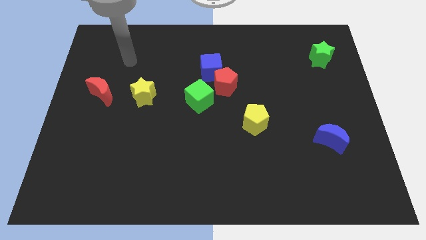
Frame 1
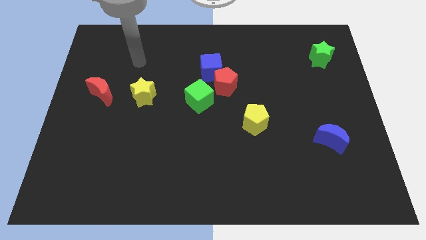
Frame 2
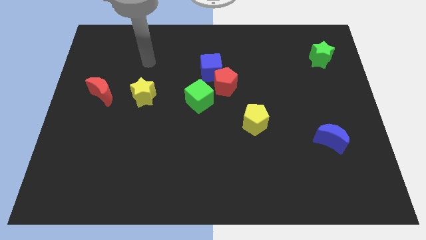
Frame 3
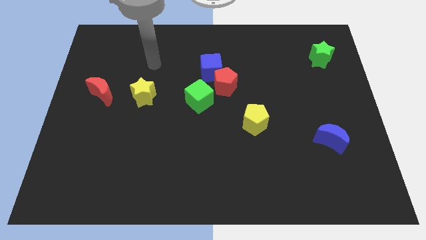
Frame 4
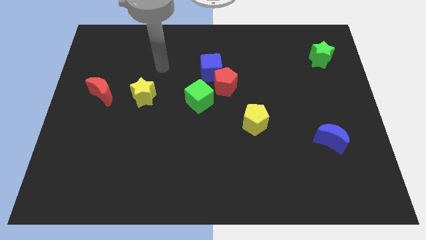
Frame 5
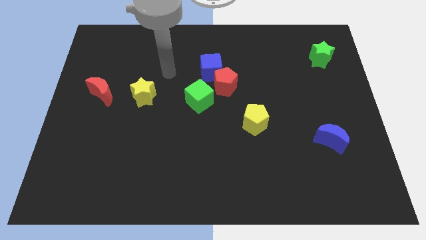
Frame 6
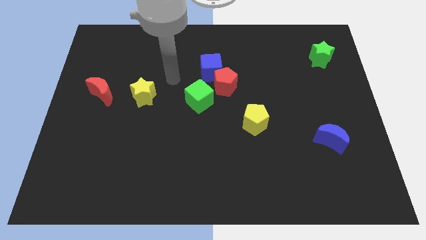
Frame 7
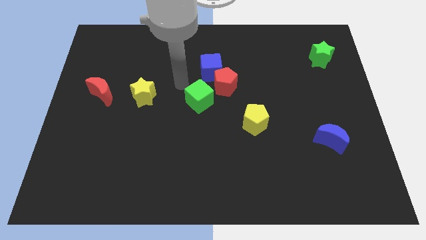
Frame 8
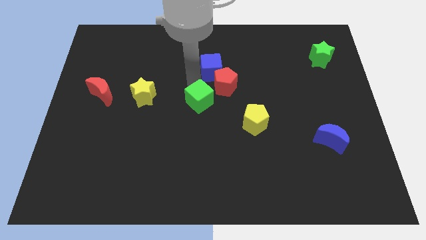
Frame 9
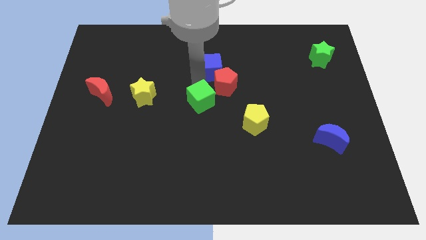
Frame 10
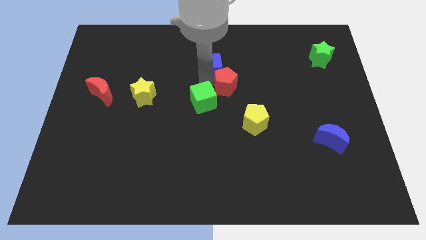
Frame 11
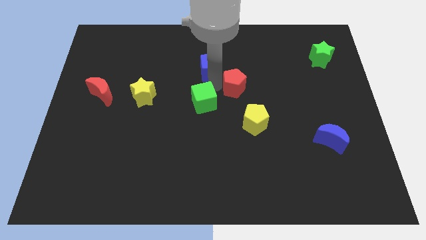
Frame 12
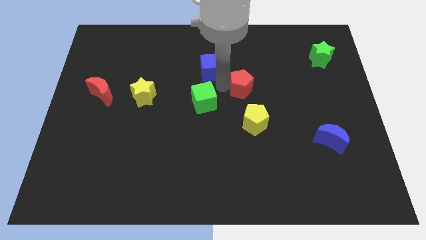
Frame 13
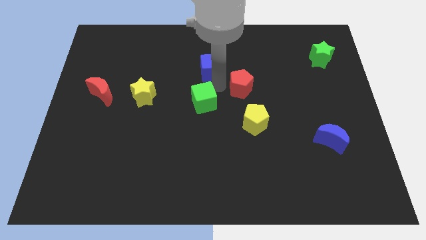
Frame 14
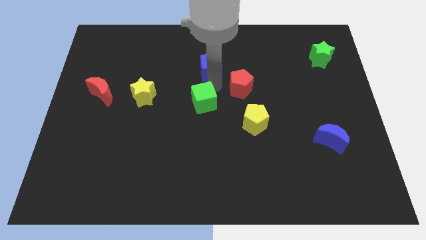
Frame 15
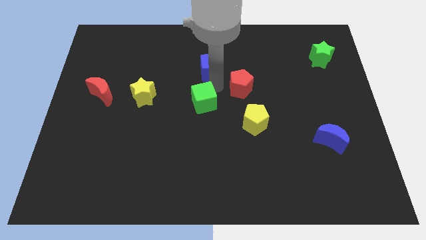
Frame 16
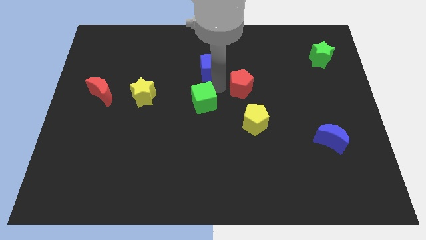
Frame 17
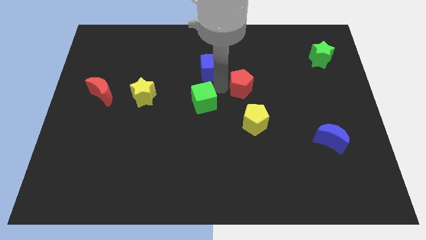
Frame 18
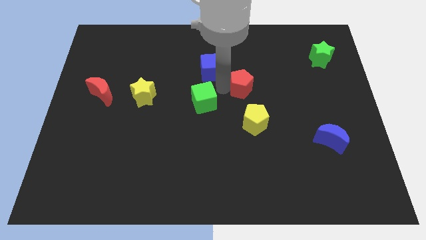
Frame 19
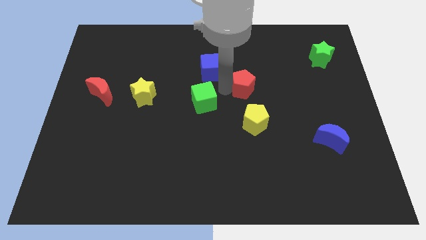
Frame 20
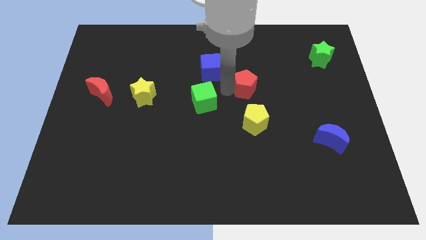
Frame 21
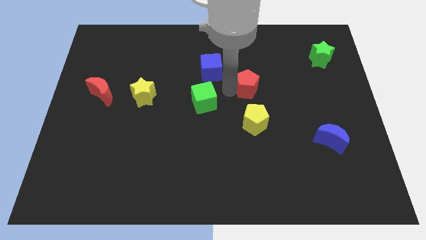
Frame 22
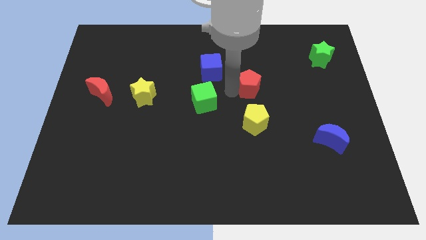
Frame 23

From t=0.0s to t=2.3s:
separate the red pentagon from the blue cube and green cube

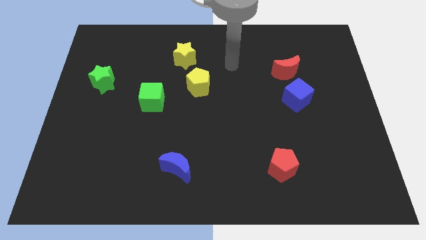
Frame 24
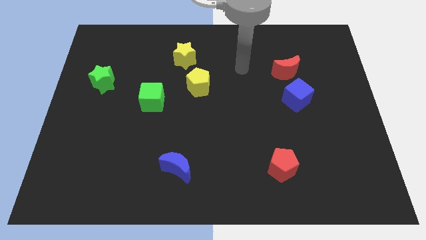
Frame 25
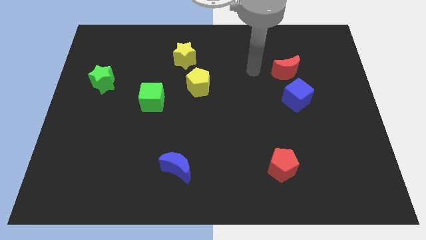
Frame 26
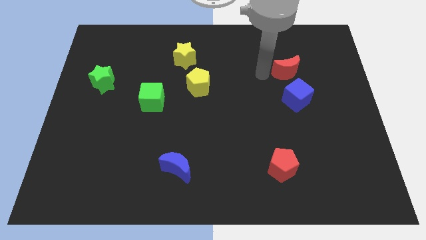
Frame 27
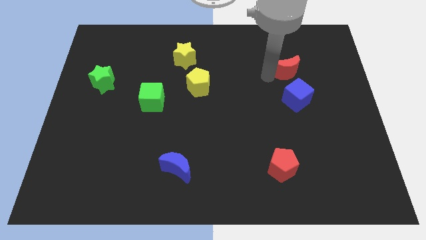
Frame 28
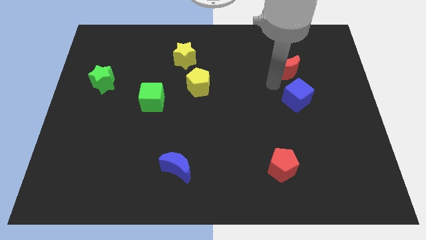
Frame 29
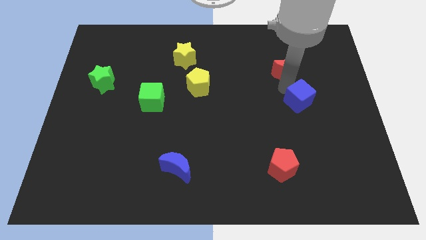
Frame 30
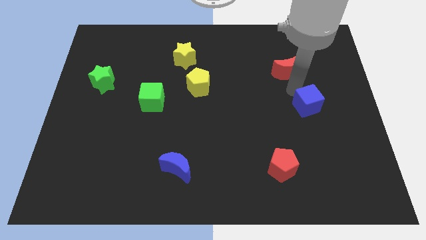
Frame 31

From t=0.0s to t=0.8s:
pull the red moon apart from the blue cube

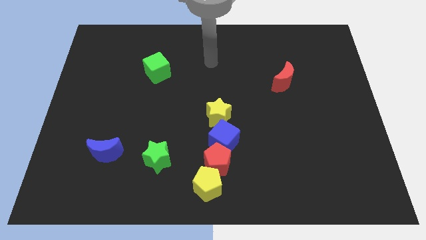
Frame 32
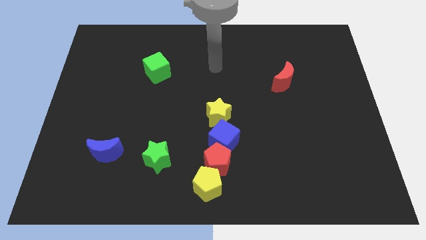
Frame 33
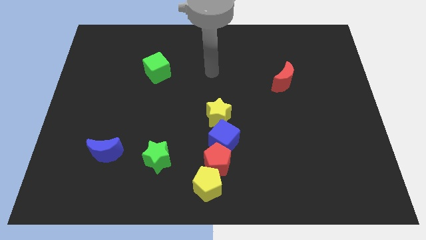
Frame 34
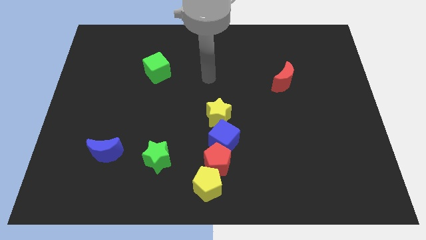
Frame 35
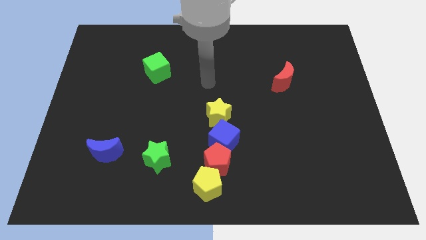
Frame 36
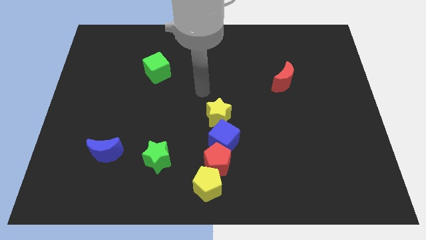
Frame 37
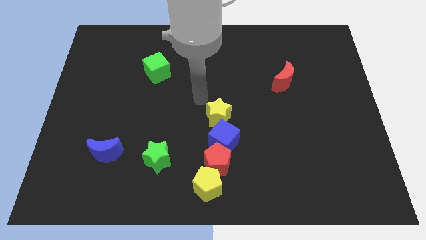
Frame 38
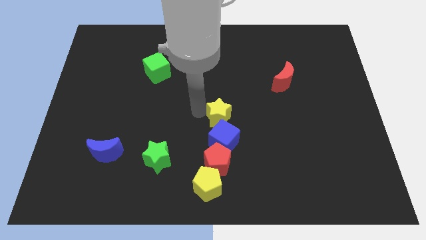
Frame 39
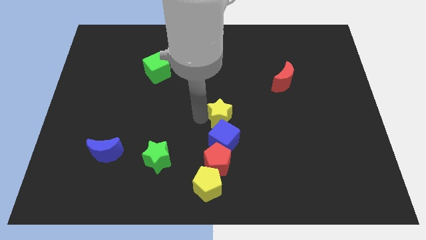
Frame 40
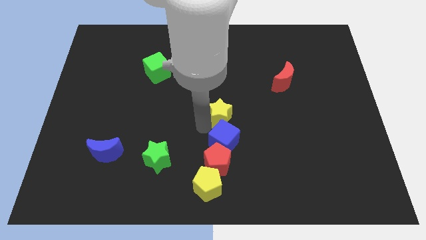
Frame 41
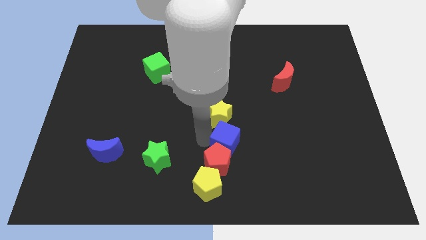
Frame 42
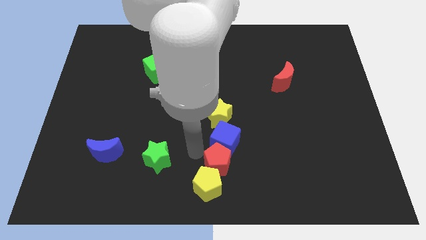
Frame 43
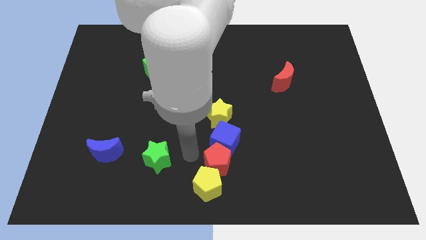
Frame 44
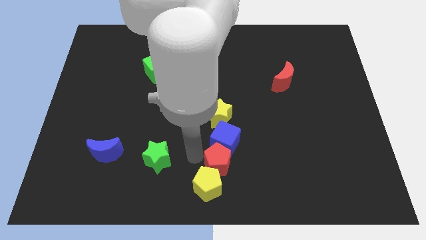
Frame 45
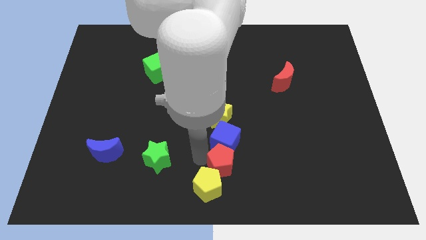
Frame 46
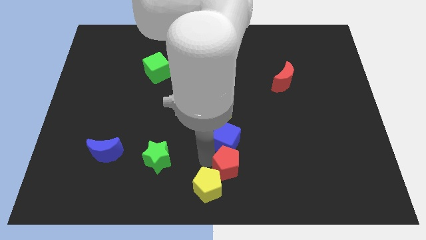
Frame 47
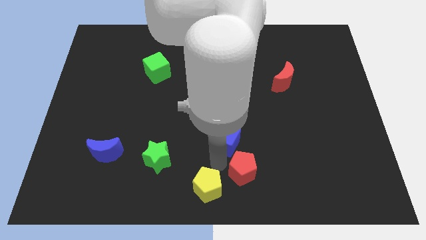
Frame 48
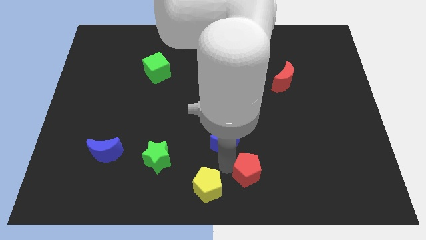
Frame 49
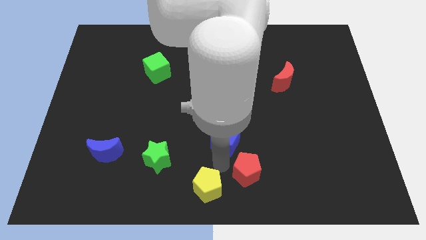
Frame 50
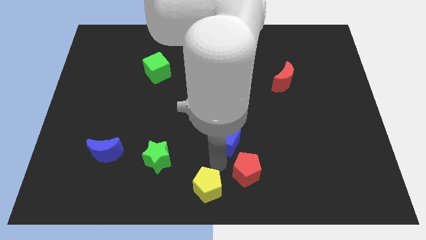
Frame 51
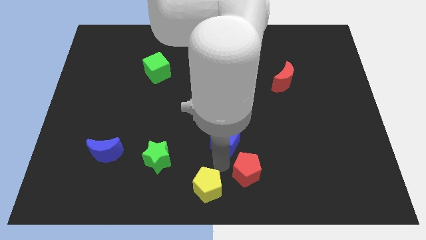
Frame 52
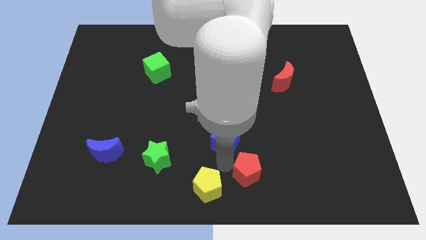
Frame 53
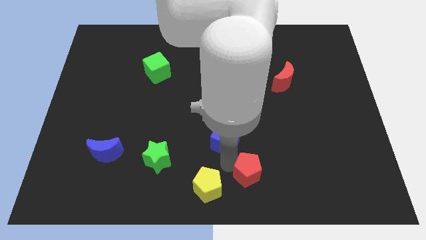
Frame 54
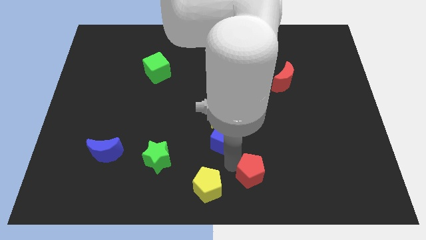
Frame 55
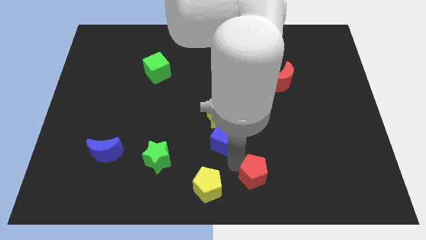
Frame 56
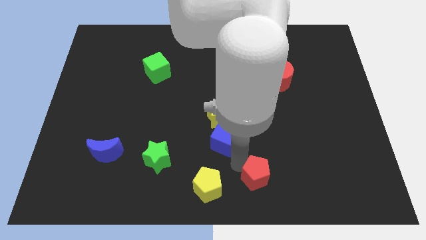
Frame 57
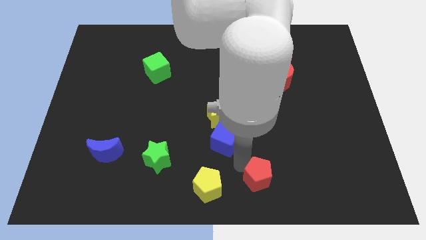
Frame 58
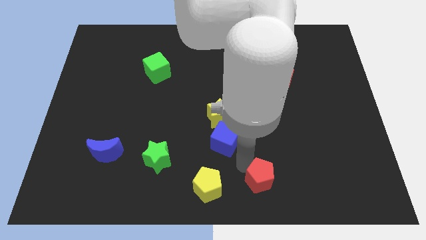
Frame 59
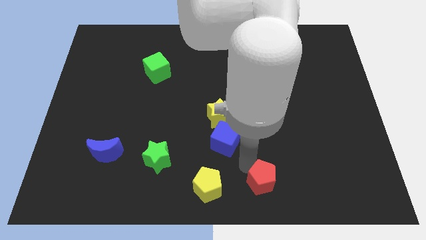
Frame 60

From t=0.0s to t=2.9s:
pull the red pentagon apart from the blue cube and yellow pentagon

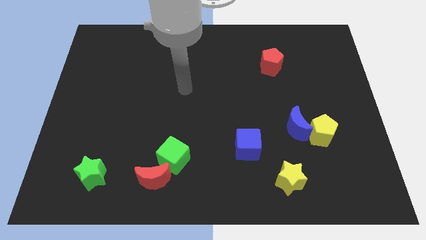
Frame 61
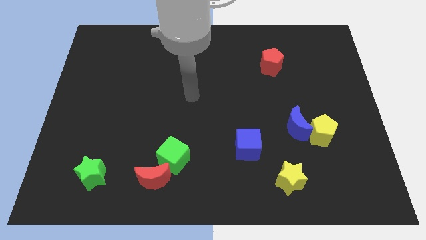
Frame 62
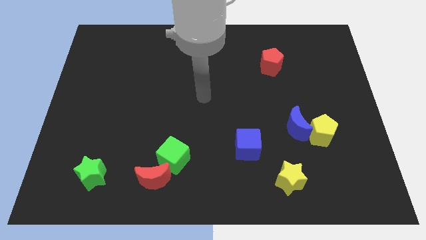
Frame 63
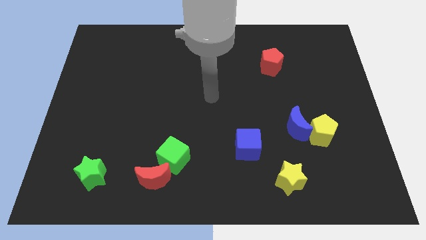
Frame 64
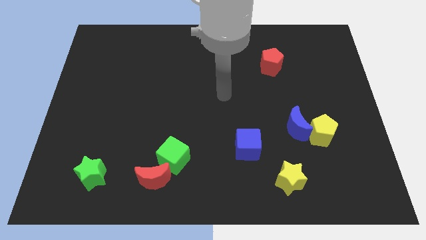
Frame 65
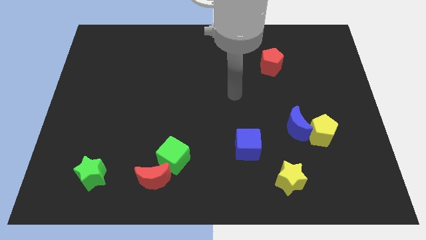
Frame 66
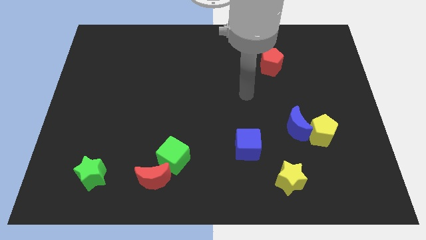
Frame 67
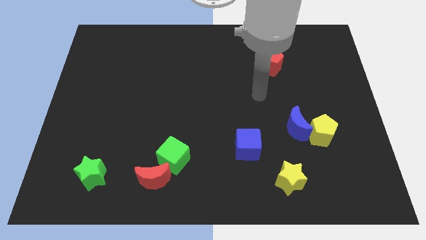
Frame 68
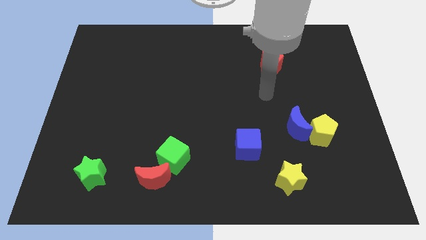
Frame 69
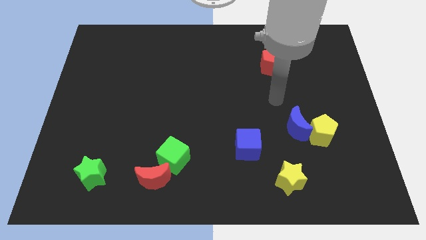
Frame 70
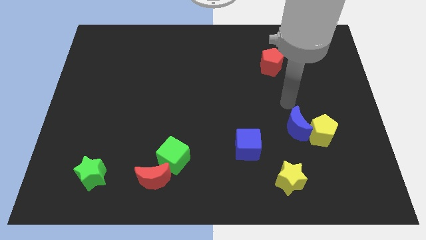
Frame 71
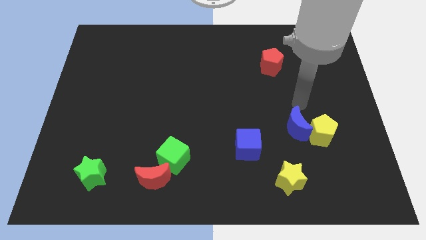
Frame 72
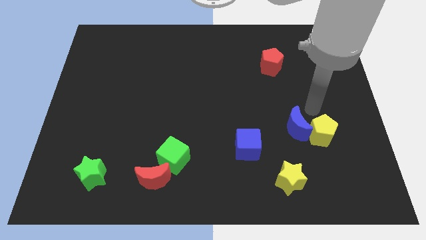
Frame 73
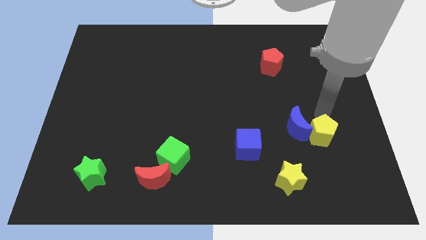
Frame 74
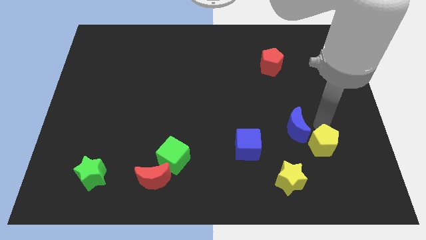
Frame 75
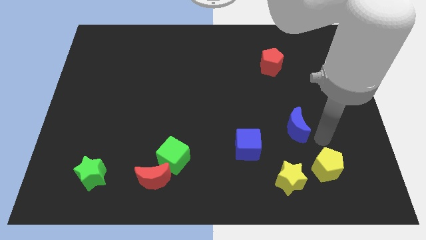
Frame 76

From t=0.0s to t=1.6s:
separate the blue moon from the yellow pentagon

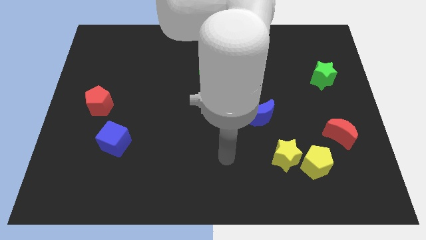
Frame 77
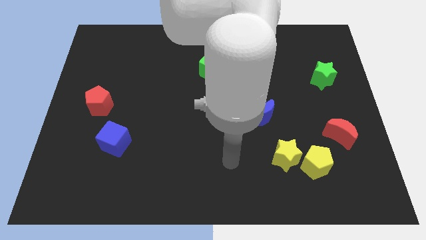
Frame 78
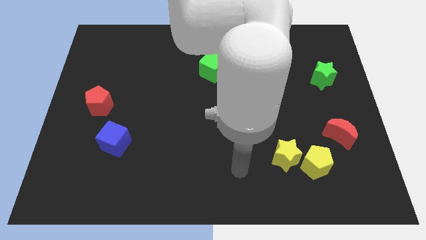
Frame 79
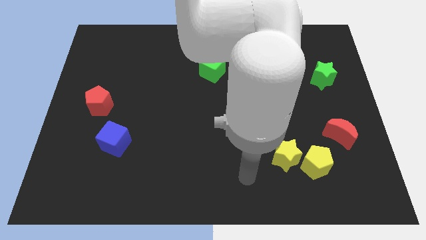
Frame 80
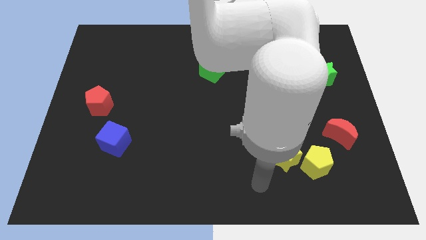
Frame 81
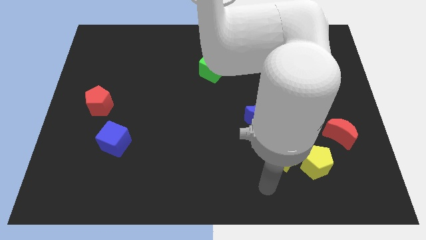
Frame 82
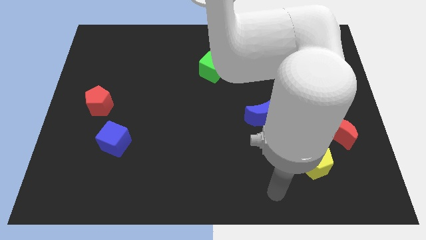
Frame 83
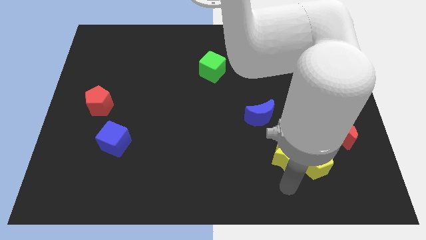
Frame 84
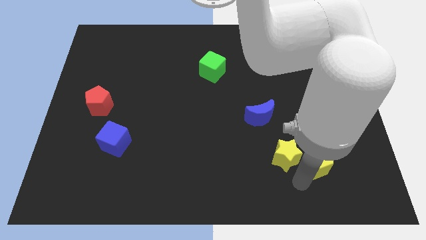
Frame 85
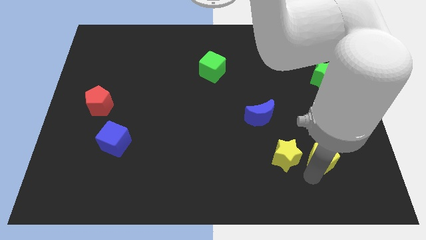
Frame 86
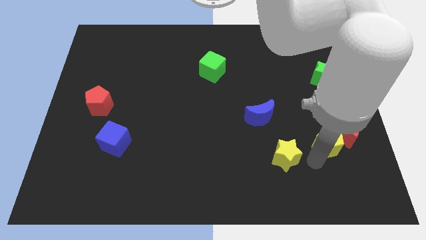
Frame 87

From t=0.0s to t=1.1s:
move the yellow star away from the yellow pentagon

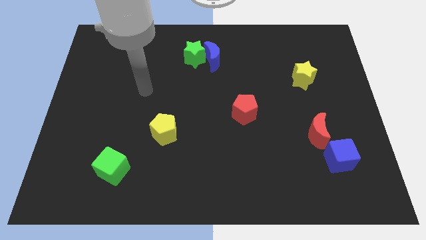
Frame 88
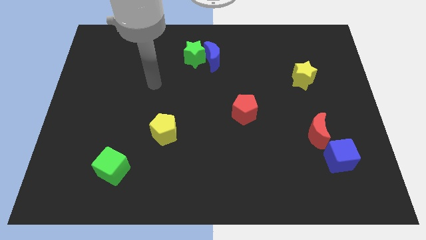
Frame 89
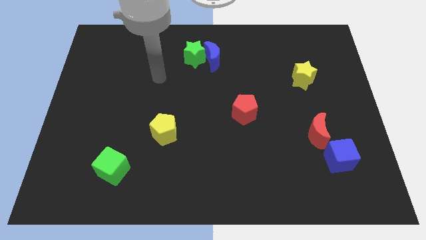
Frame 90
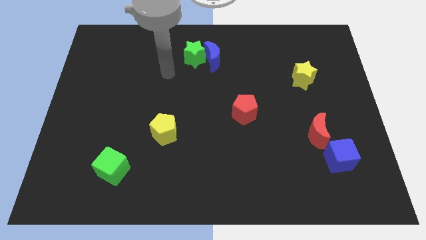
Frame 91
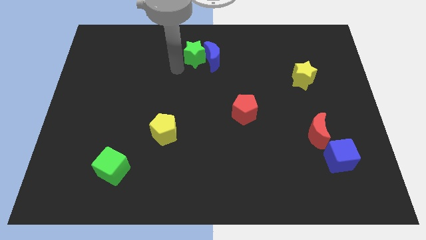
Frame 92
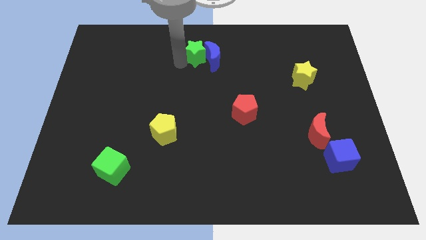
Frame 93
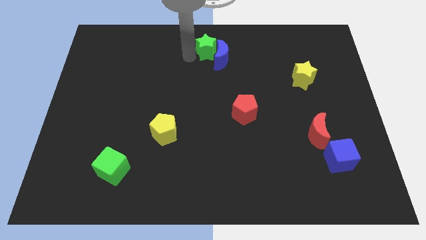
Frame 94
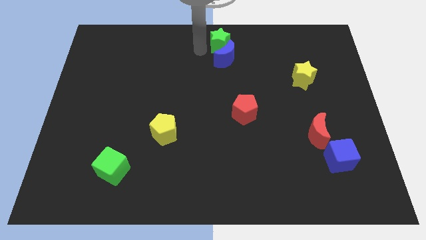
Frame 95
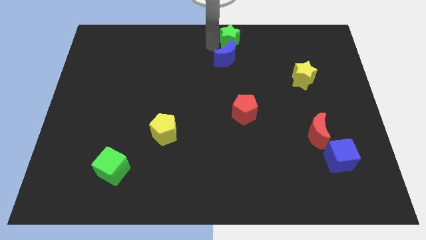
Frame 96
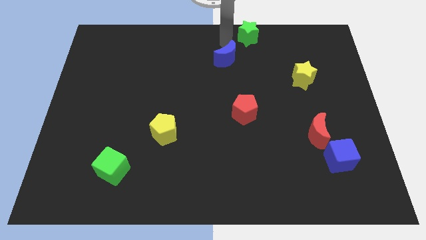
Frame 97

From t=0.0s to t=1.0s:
separate the blue moon from the green star
